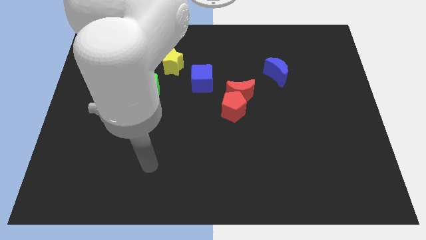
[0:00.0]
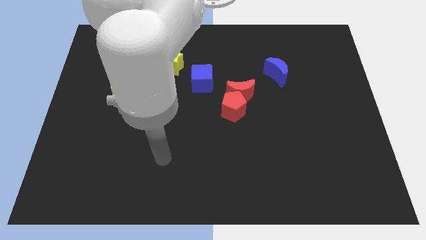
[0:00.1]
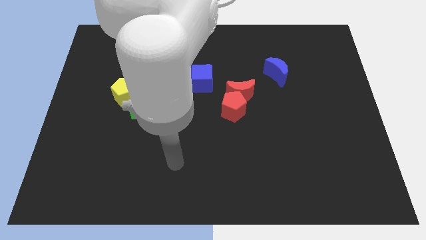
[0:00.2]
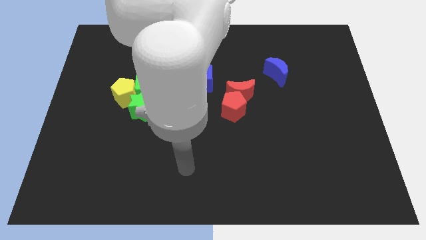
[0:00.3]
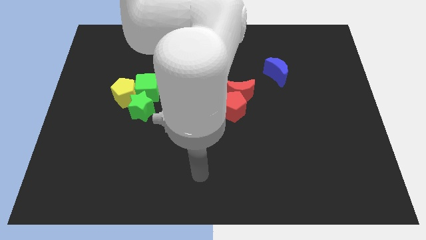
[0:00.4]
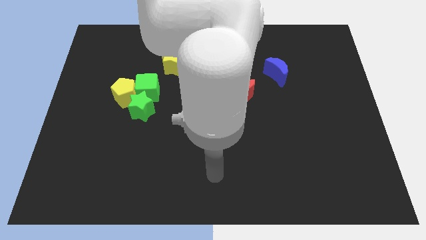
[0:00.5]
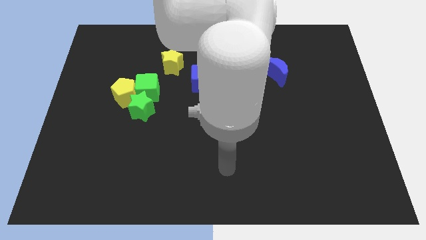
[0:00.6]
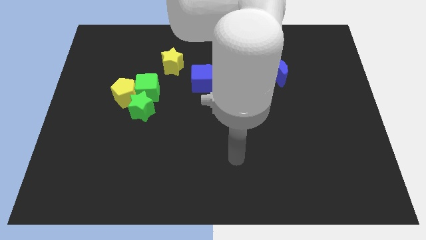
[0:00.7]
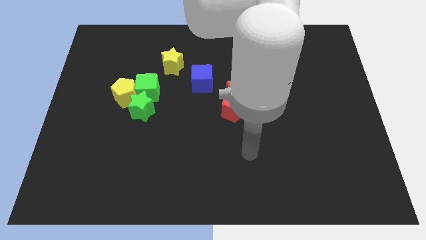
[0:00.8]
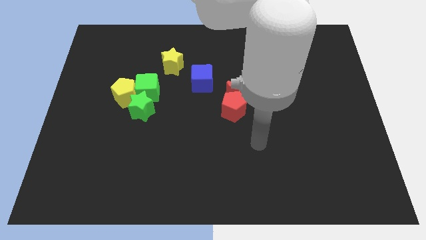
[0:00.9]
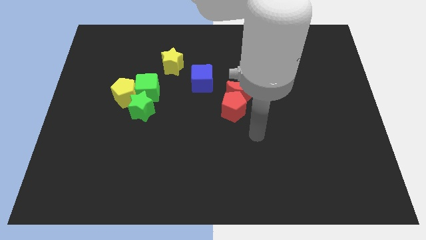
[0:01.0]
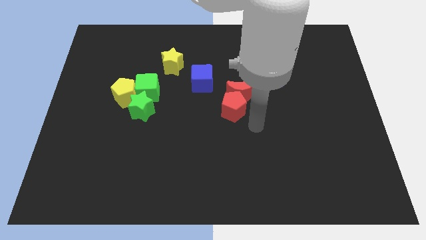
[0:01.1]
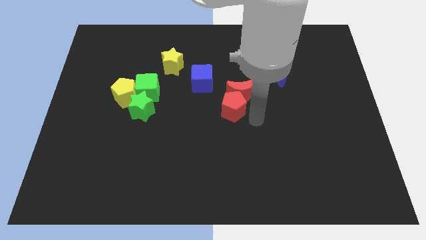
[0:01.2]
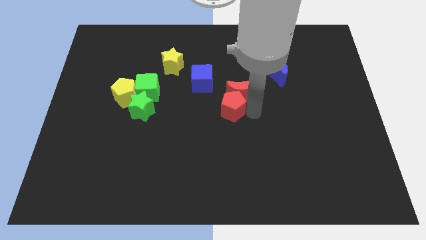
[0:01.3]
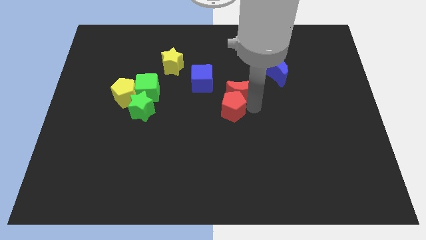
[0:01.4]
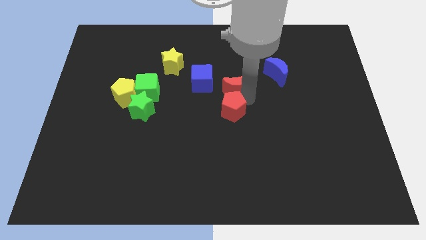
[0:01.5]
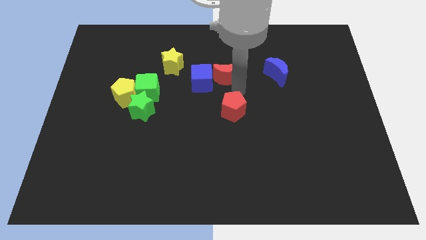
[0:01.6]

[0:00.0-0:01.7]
pull the red pentagon apart from the red moon

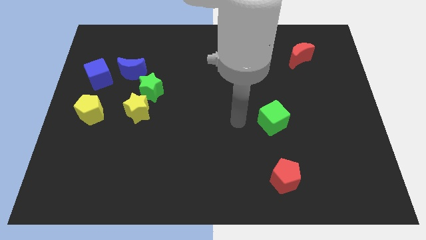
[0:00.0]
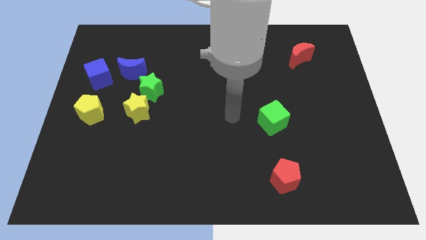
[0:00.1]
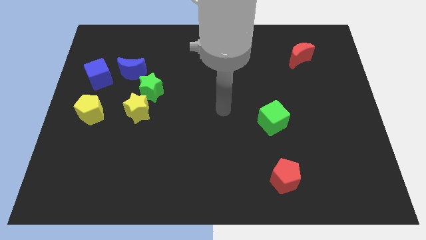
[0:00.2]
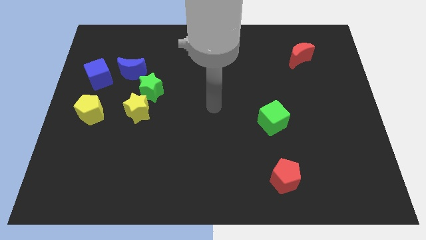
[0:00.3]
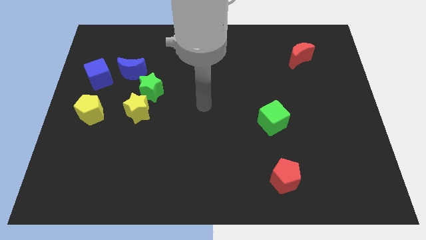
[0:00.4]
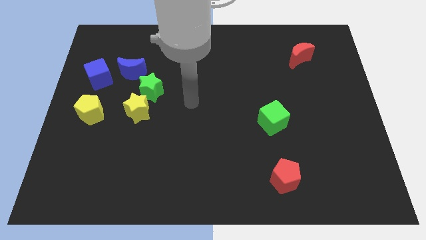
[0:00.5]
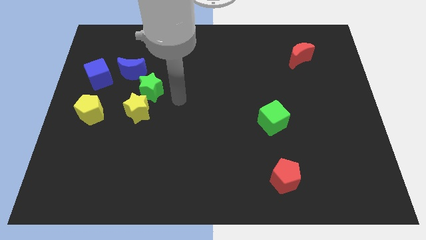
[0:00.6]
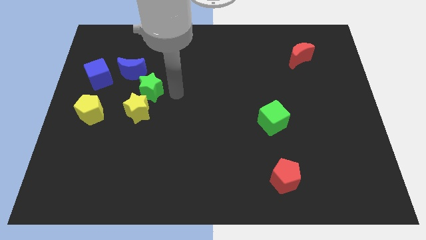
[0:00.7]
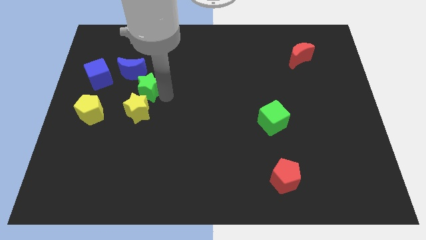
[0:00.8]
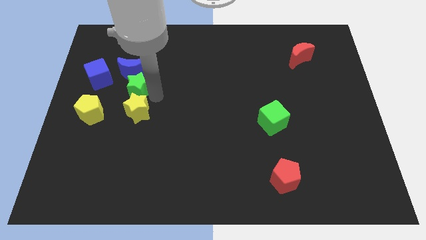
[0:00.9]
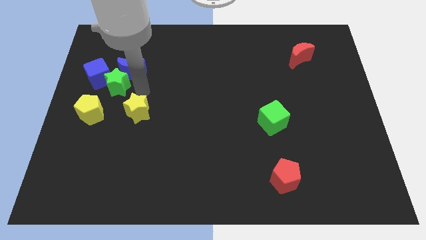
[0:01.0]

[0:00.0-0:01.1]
pull the yellow star apart from the green star

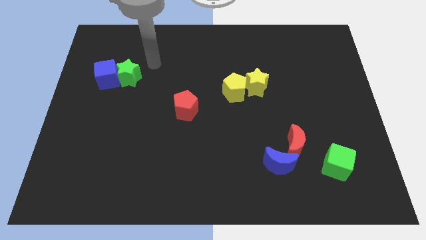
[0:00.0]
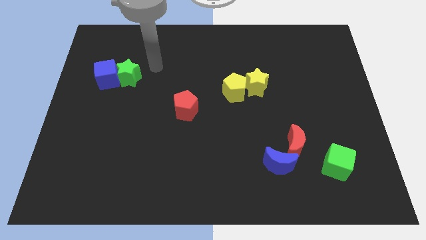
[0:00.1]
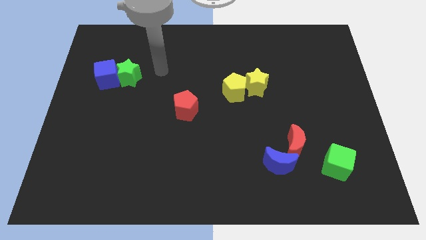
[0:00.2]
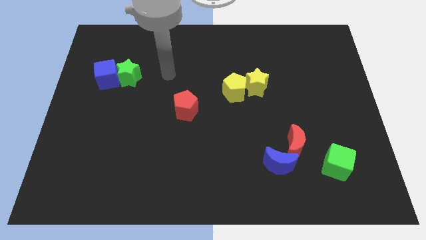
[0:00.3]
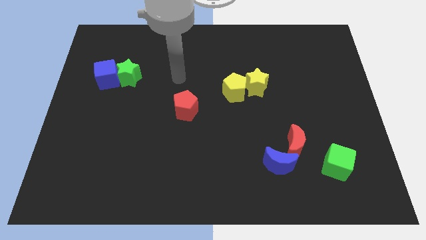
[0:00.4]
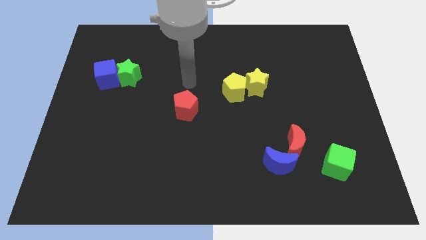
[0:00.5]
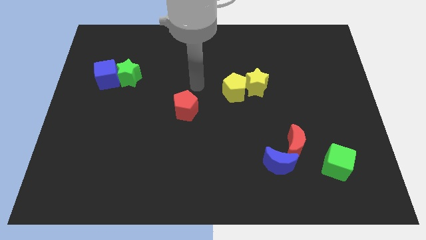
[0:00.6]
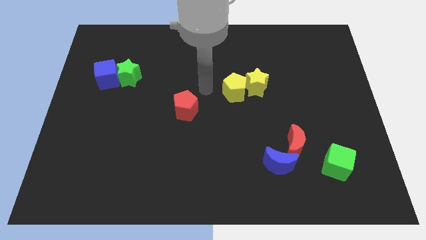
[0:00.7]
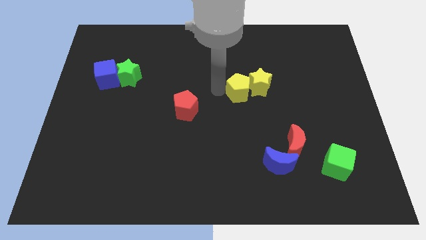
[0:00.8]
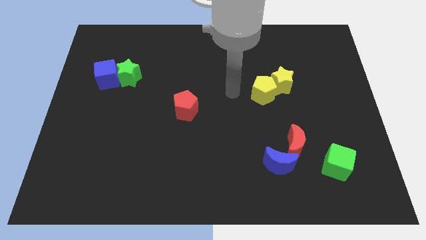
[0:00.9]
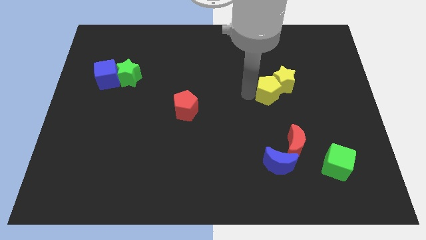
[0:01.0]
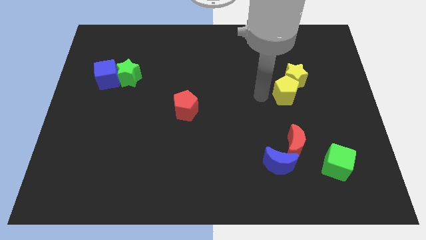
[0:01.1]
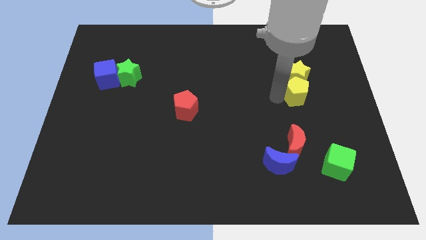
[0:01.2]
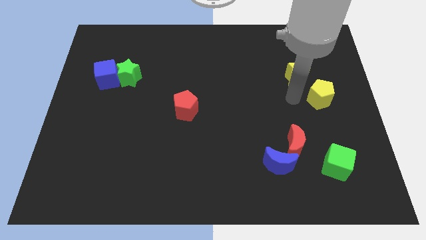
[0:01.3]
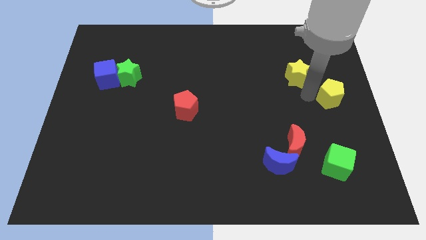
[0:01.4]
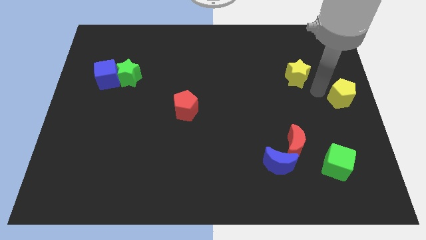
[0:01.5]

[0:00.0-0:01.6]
pull the yellow star apart from the yellow pentagon

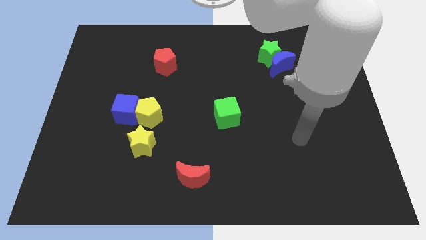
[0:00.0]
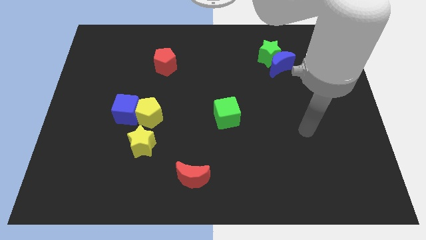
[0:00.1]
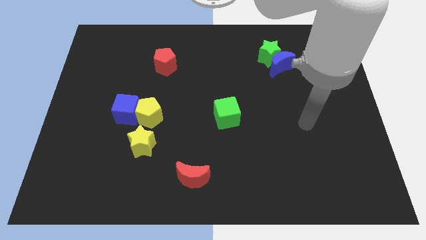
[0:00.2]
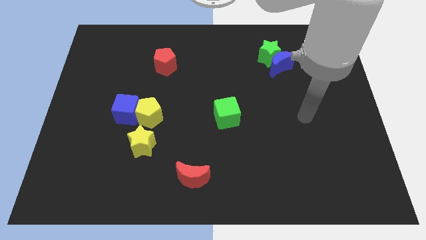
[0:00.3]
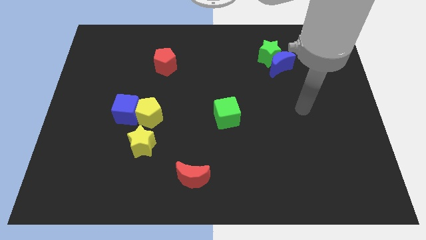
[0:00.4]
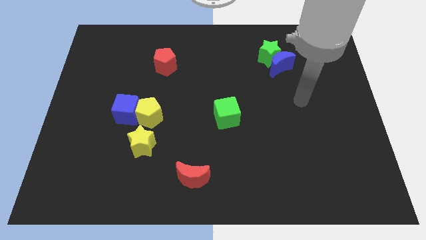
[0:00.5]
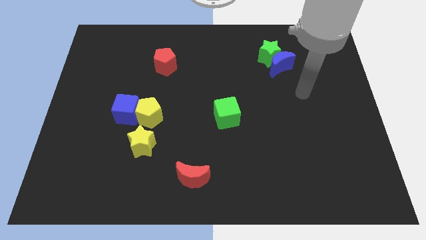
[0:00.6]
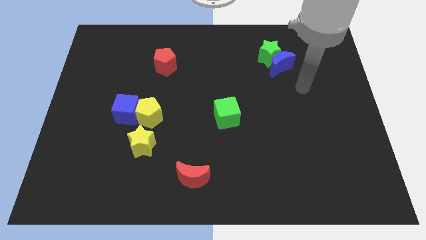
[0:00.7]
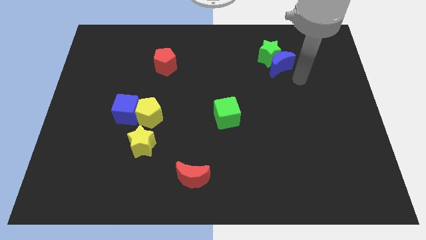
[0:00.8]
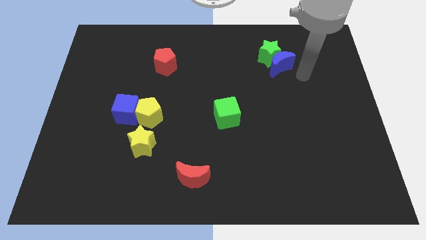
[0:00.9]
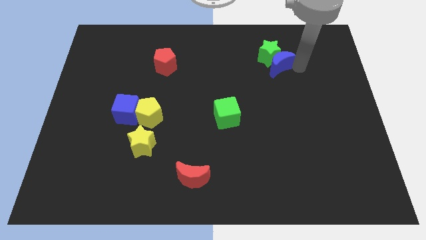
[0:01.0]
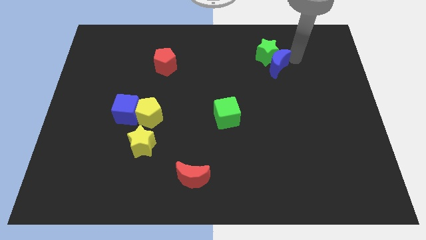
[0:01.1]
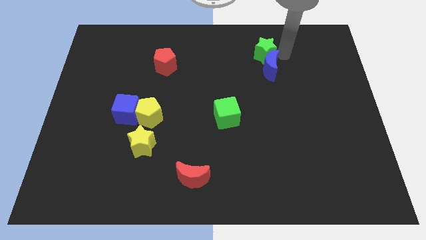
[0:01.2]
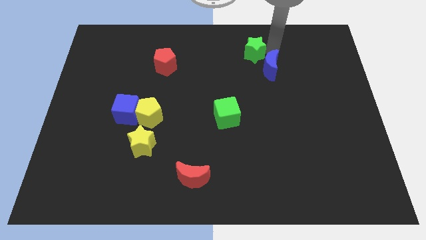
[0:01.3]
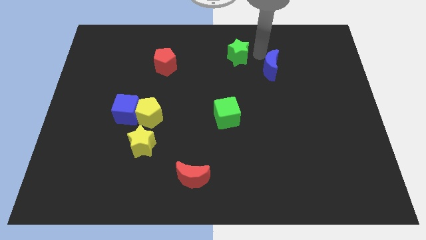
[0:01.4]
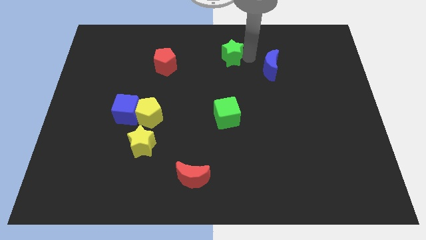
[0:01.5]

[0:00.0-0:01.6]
move the blue moon away from the green star

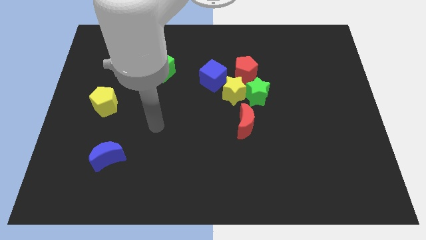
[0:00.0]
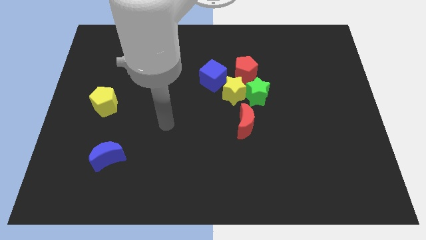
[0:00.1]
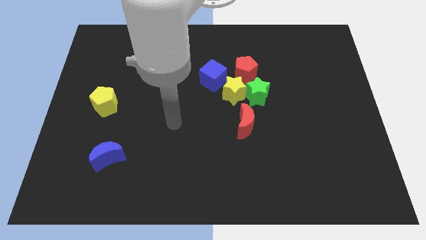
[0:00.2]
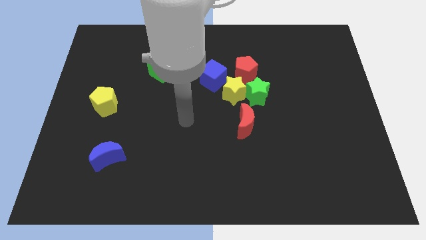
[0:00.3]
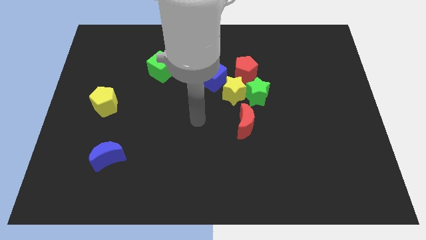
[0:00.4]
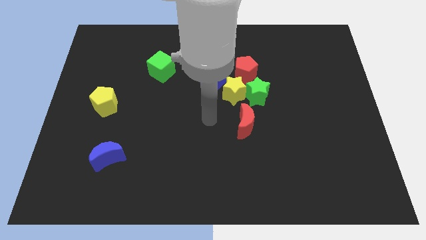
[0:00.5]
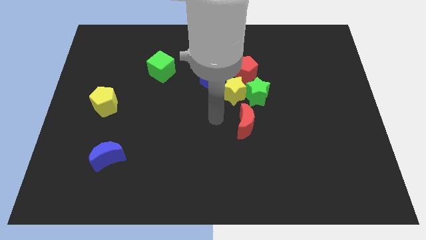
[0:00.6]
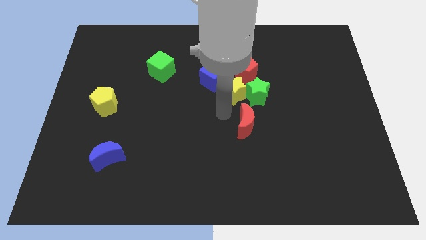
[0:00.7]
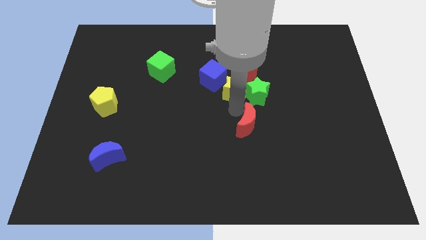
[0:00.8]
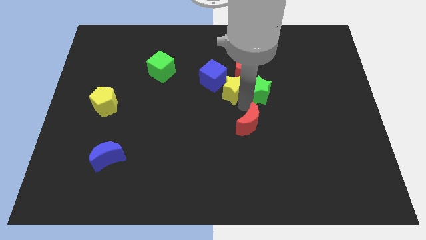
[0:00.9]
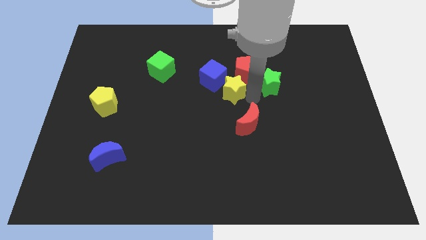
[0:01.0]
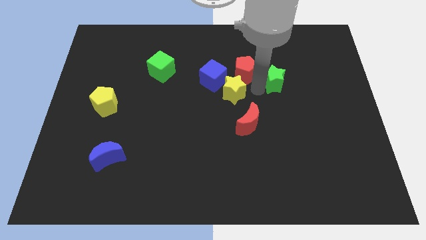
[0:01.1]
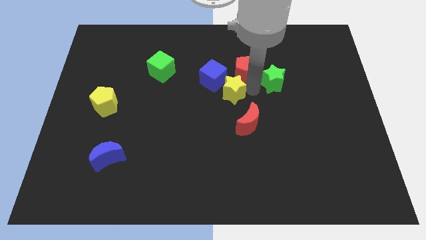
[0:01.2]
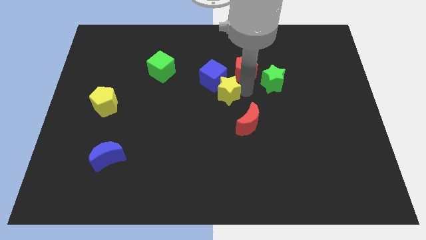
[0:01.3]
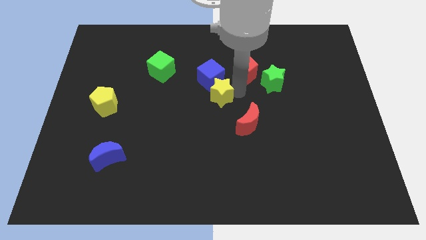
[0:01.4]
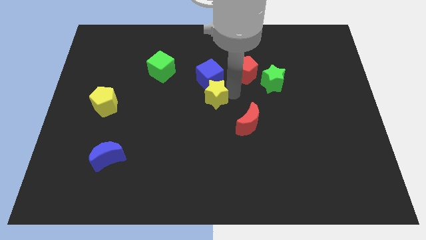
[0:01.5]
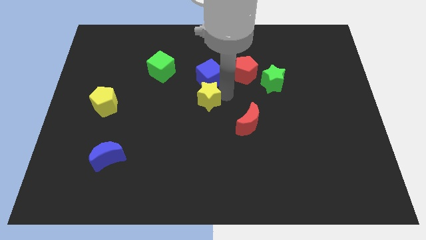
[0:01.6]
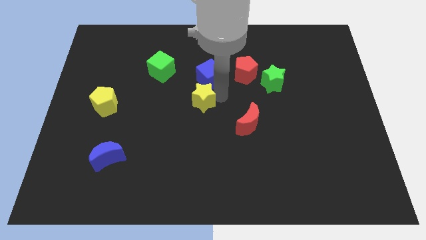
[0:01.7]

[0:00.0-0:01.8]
move the yellow star away from the group of blocks

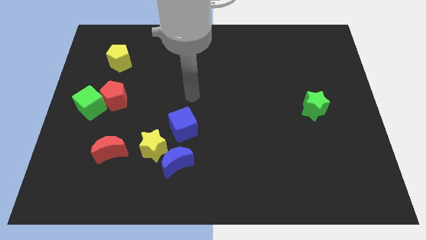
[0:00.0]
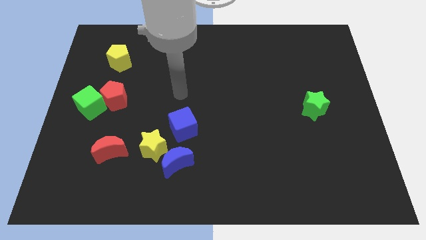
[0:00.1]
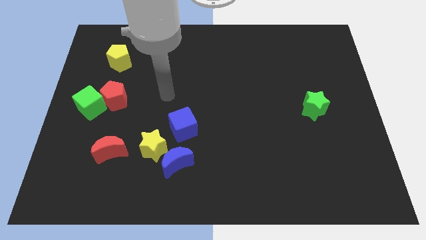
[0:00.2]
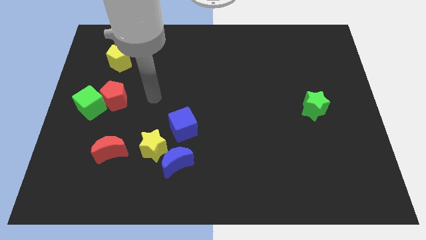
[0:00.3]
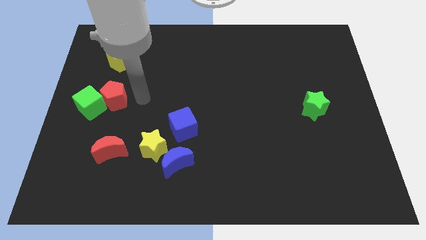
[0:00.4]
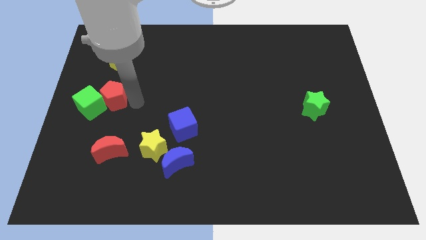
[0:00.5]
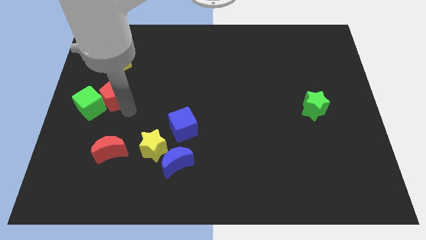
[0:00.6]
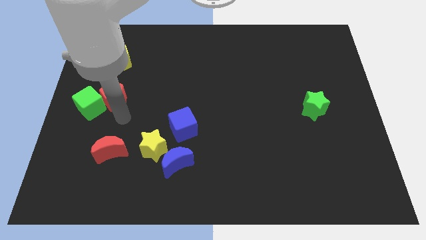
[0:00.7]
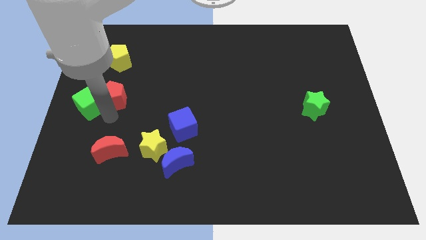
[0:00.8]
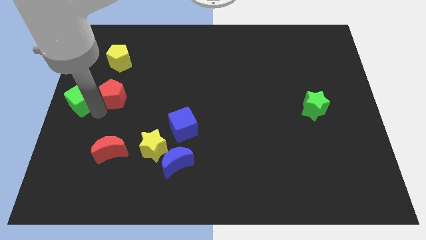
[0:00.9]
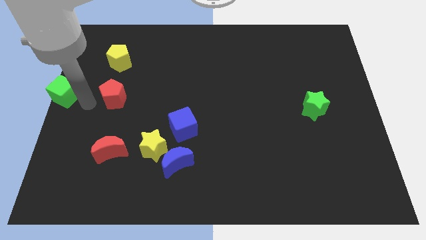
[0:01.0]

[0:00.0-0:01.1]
move the red pentagon away from the green cube

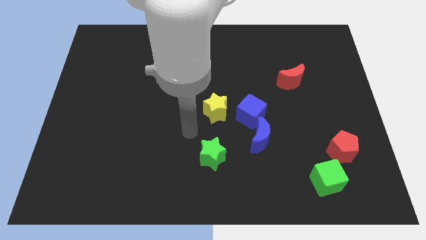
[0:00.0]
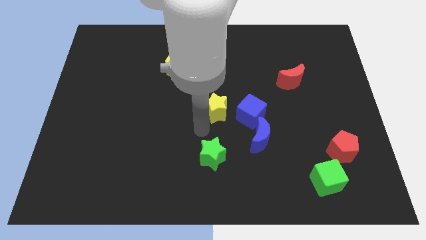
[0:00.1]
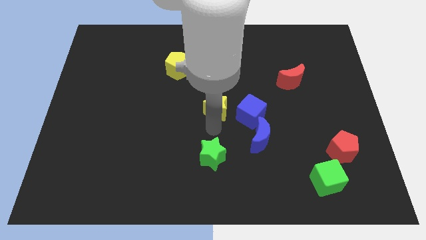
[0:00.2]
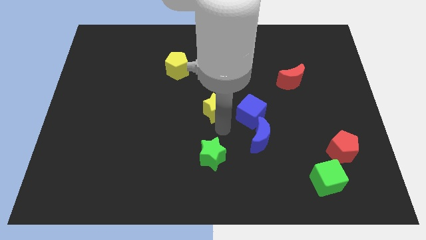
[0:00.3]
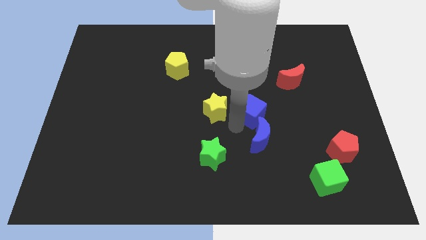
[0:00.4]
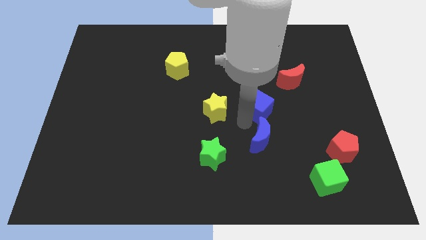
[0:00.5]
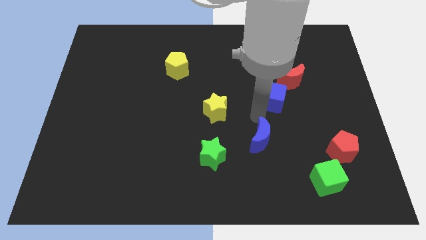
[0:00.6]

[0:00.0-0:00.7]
pull the blue moon apart from the blue cube
